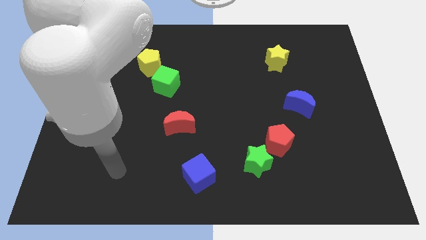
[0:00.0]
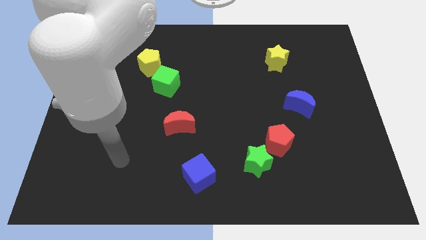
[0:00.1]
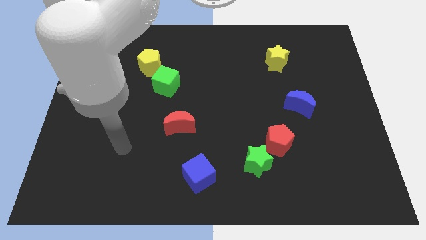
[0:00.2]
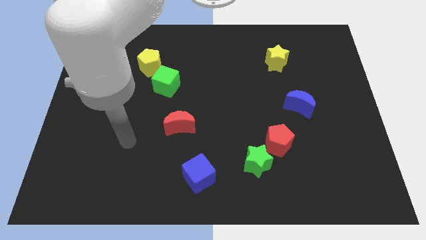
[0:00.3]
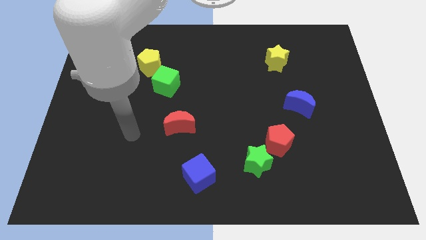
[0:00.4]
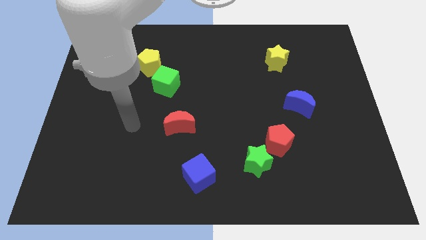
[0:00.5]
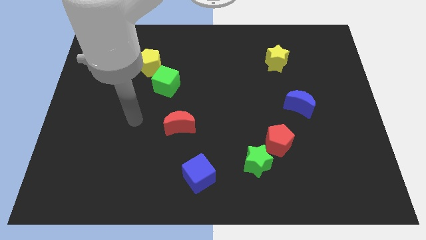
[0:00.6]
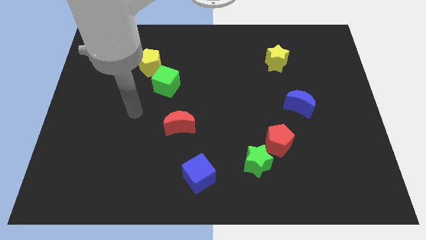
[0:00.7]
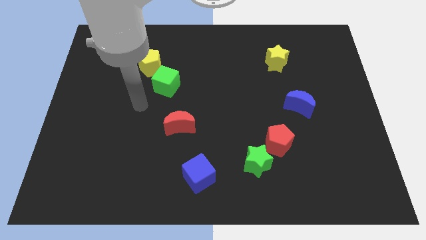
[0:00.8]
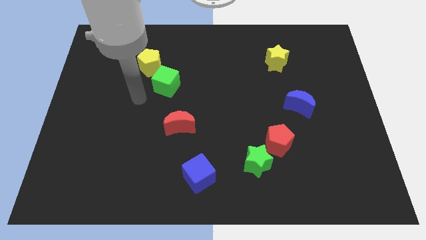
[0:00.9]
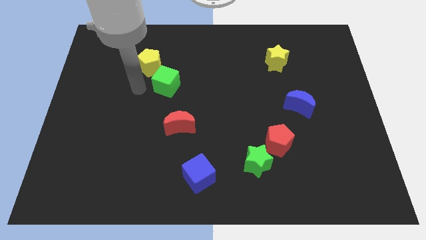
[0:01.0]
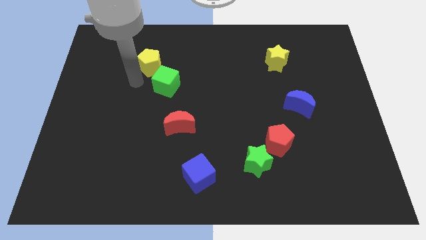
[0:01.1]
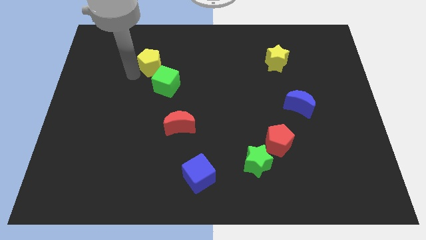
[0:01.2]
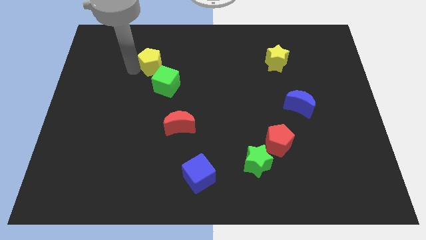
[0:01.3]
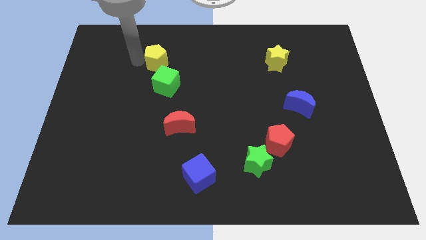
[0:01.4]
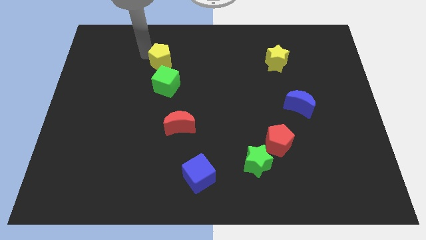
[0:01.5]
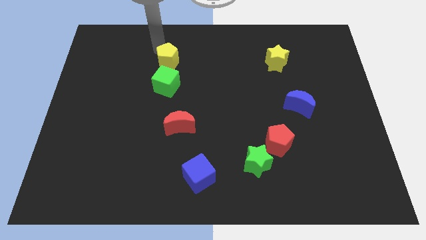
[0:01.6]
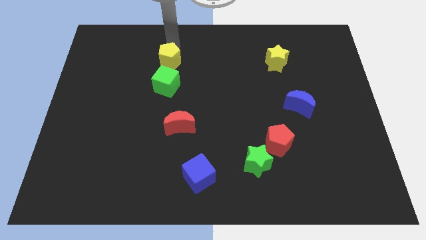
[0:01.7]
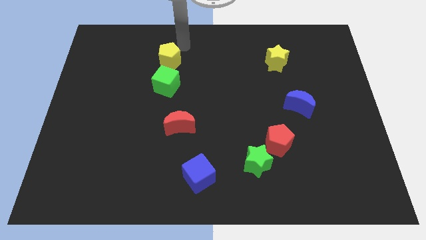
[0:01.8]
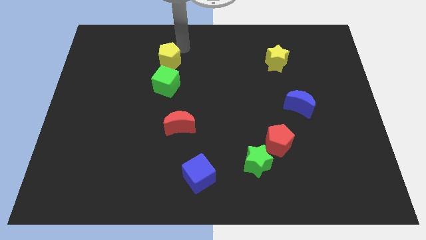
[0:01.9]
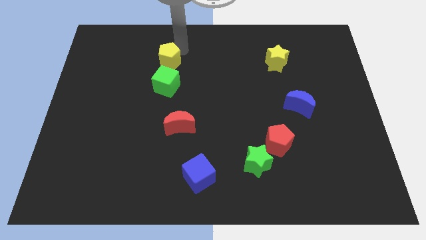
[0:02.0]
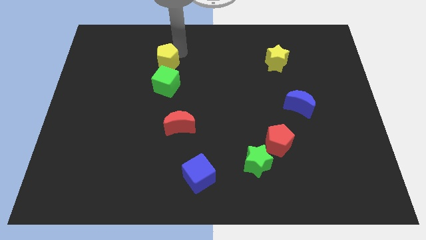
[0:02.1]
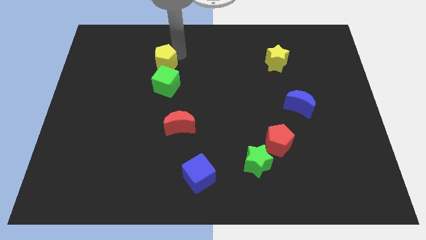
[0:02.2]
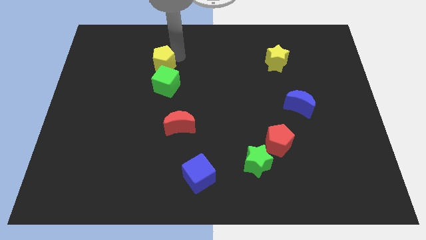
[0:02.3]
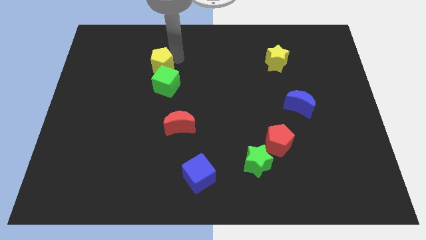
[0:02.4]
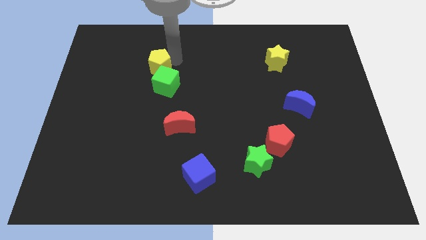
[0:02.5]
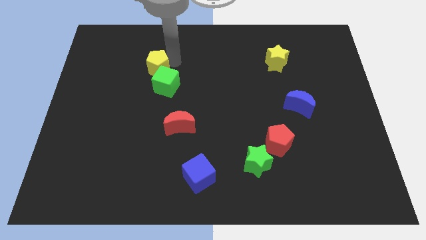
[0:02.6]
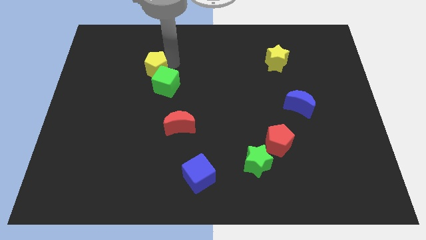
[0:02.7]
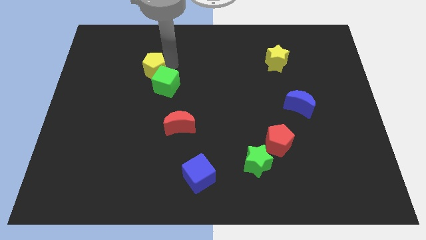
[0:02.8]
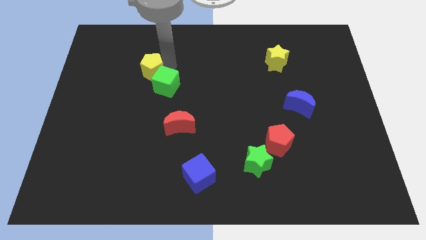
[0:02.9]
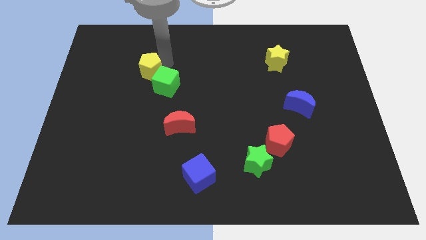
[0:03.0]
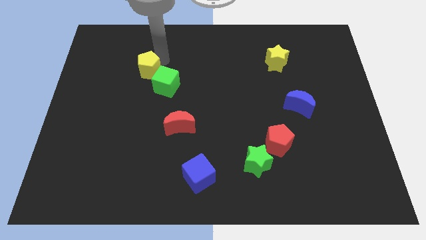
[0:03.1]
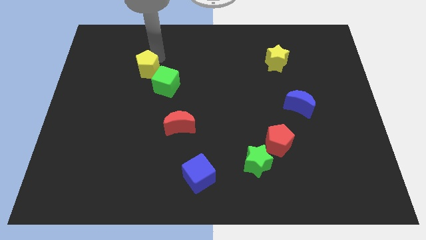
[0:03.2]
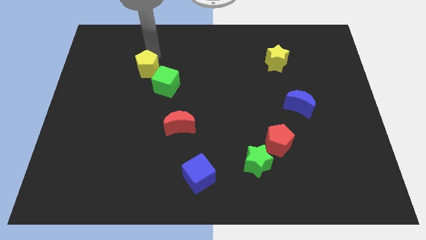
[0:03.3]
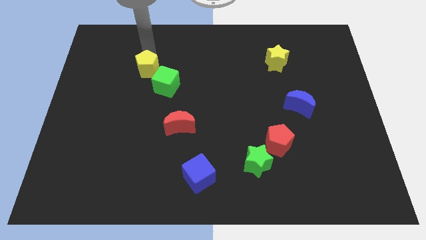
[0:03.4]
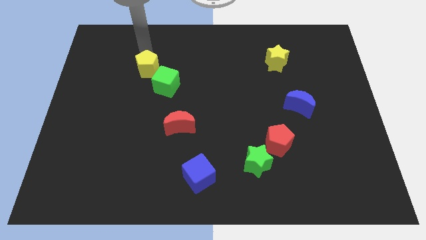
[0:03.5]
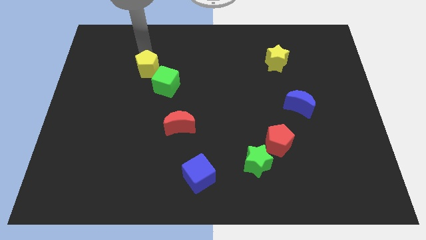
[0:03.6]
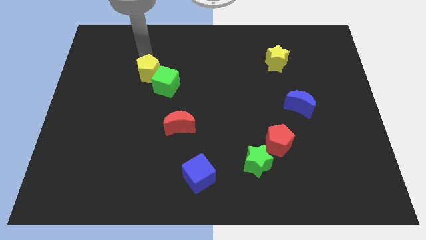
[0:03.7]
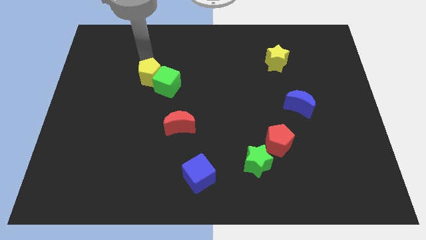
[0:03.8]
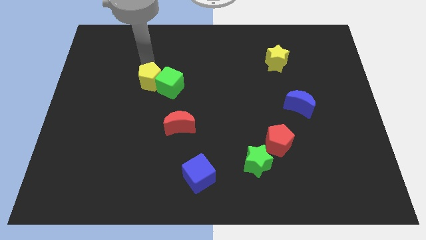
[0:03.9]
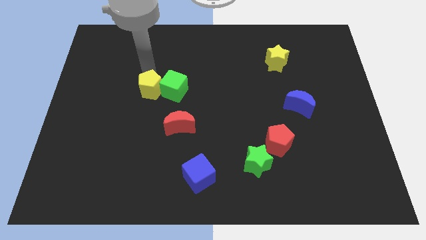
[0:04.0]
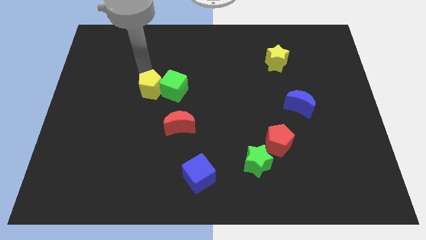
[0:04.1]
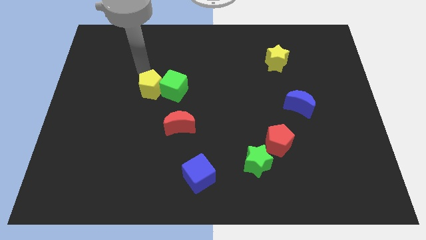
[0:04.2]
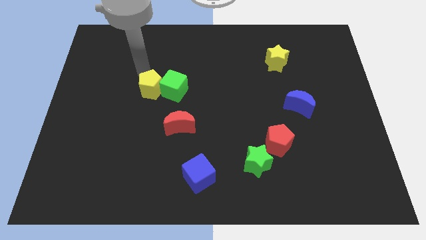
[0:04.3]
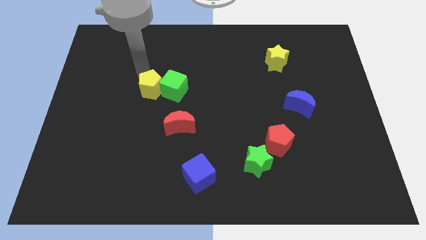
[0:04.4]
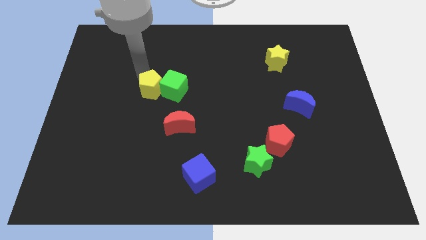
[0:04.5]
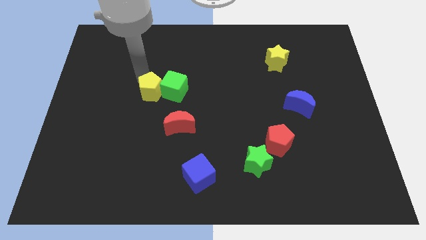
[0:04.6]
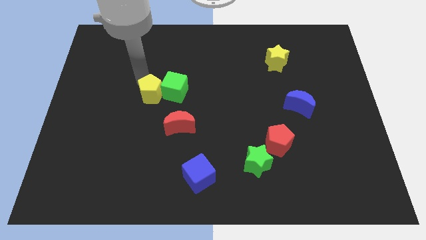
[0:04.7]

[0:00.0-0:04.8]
move the yellow pentagon to the top left of the red moon

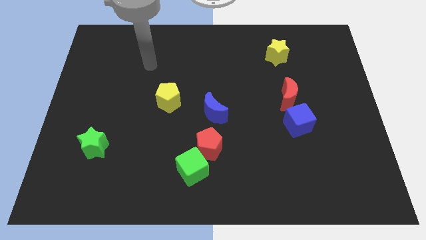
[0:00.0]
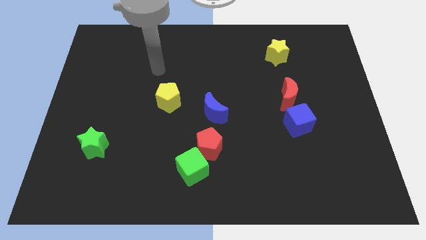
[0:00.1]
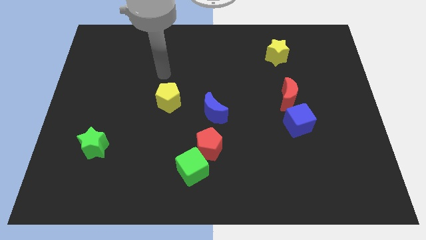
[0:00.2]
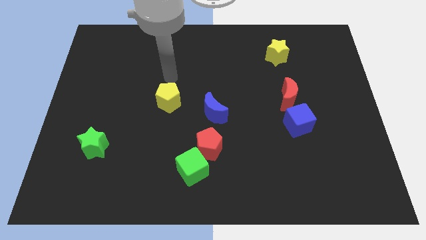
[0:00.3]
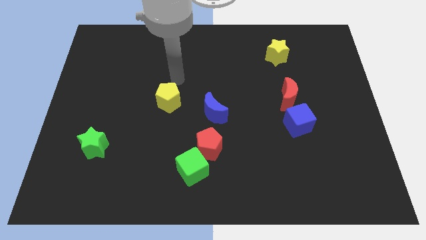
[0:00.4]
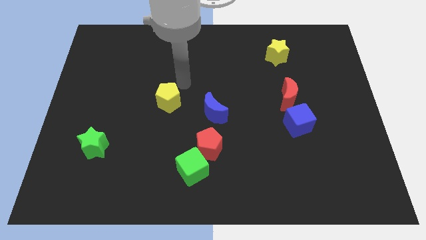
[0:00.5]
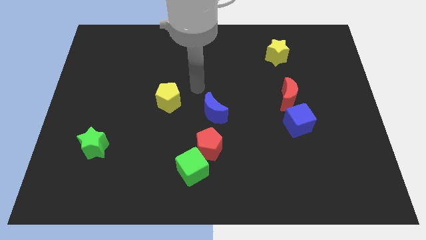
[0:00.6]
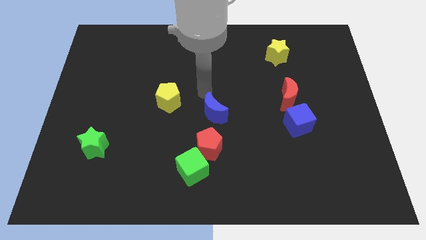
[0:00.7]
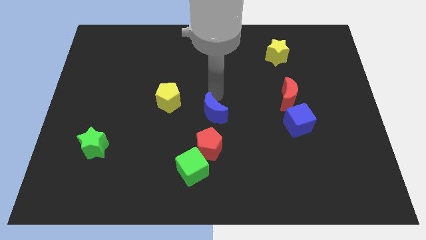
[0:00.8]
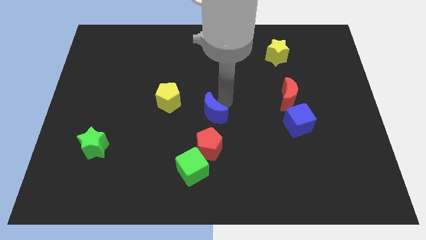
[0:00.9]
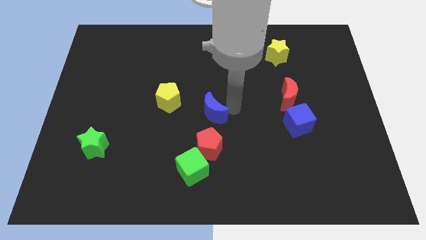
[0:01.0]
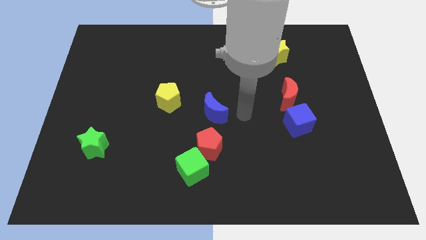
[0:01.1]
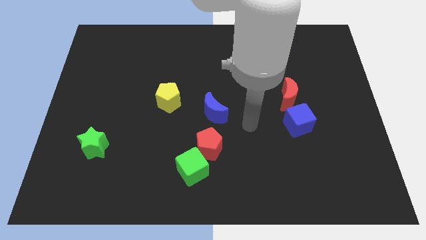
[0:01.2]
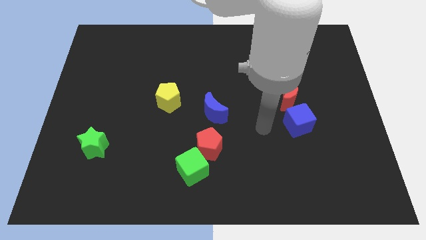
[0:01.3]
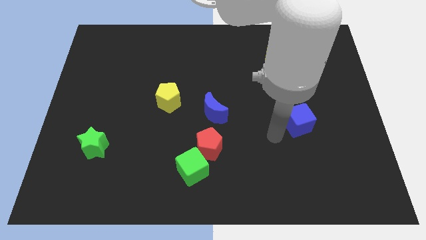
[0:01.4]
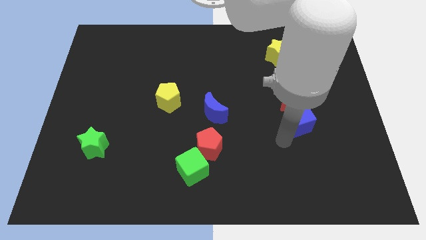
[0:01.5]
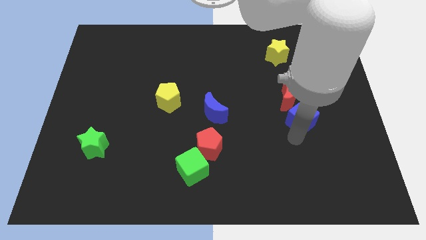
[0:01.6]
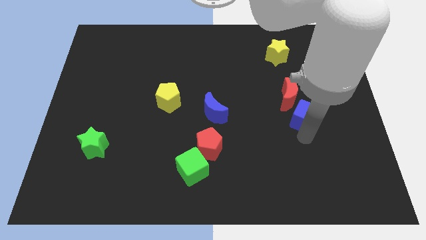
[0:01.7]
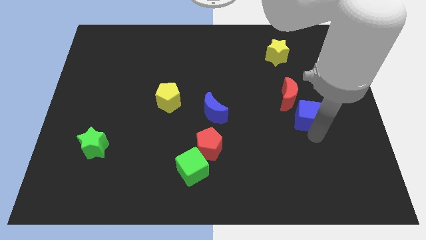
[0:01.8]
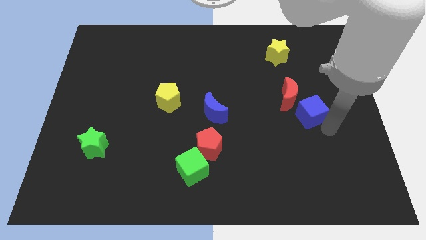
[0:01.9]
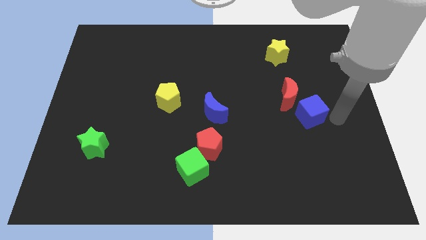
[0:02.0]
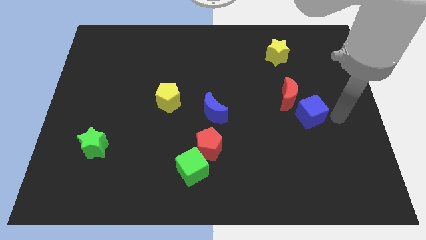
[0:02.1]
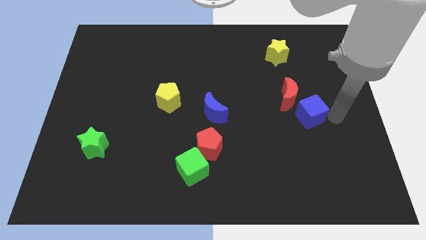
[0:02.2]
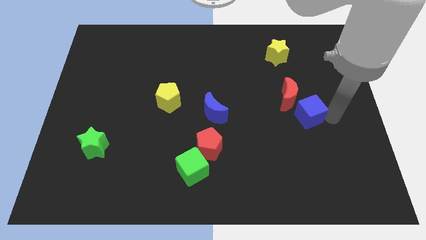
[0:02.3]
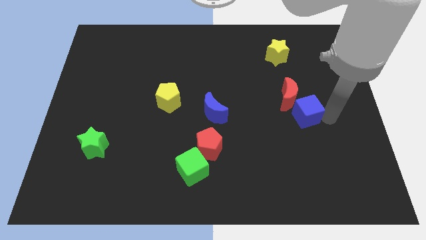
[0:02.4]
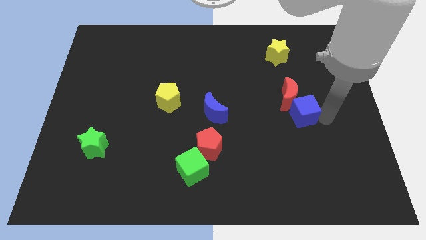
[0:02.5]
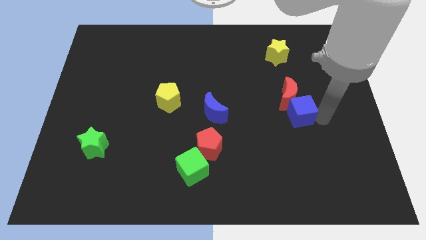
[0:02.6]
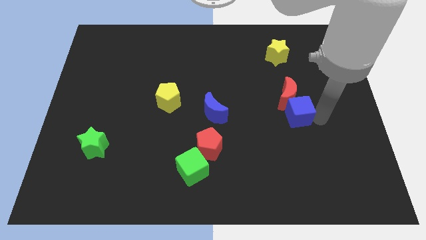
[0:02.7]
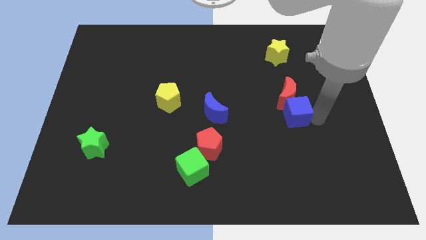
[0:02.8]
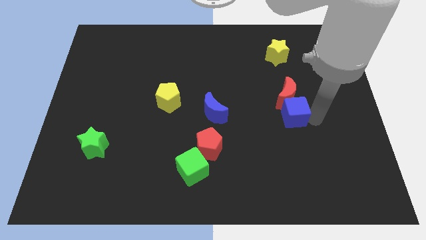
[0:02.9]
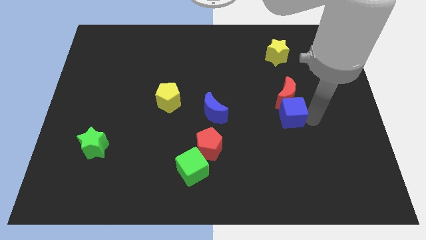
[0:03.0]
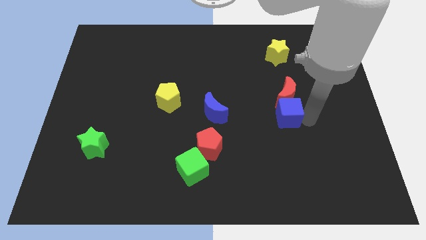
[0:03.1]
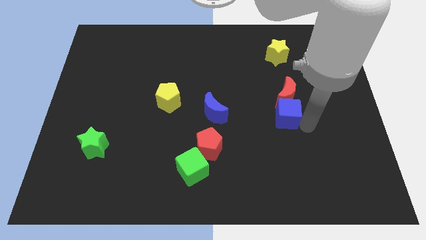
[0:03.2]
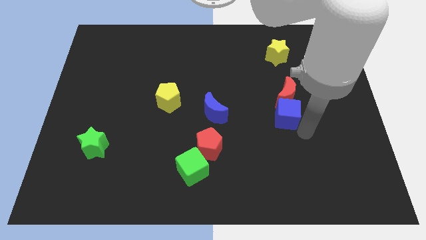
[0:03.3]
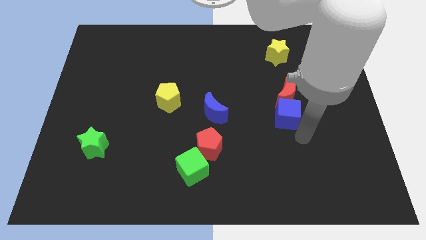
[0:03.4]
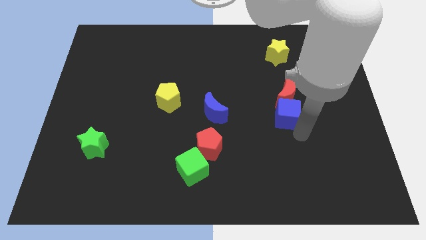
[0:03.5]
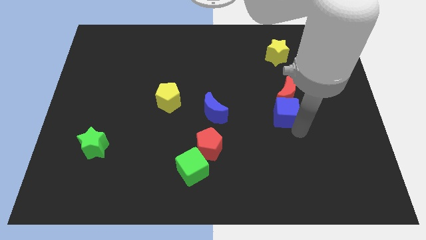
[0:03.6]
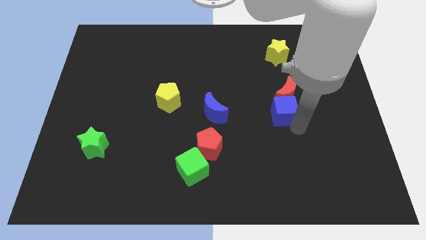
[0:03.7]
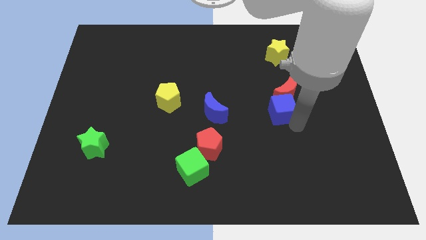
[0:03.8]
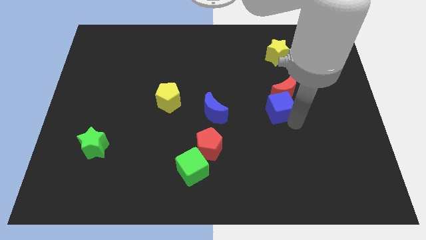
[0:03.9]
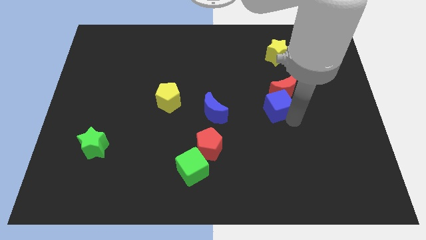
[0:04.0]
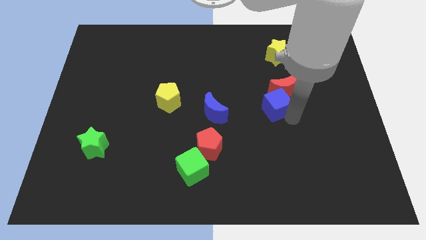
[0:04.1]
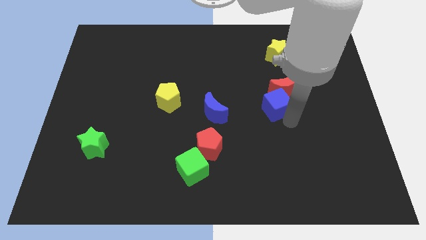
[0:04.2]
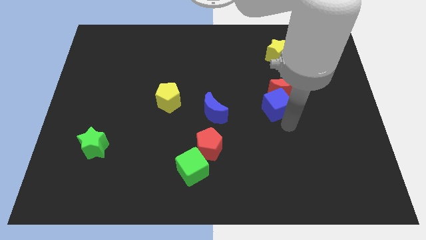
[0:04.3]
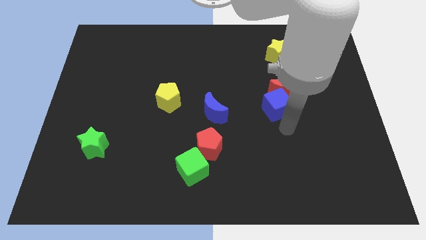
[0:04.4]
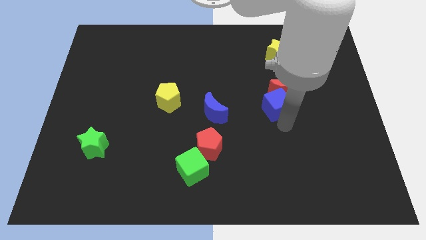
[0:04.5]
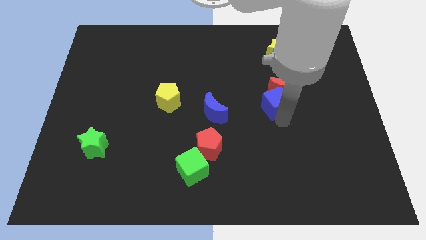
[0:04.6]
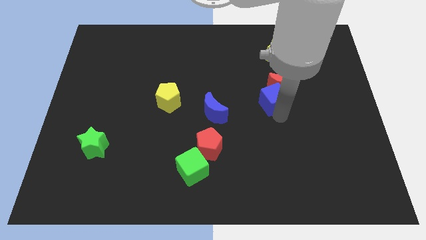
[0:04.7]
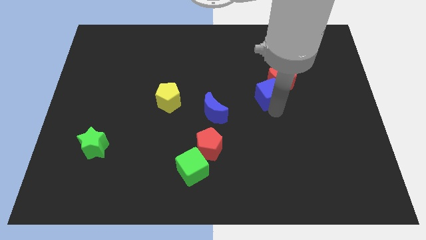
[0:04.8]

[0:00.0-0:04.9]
move the blue cube below the yellow star
